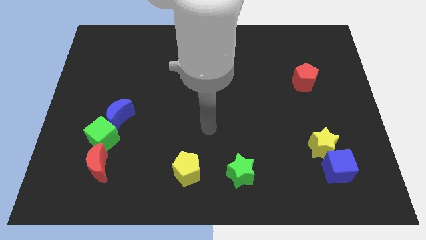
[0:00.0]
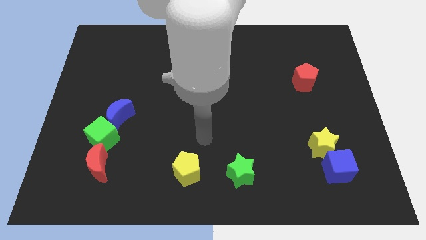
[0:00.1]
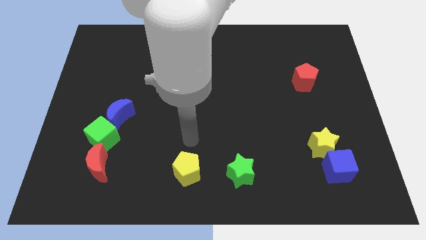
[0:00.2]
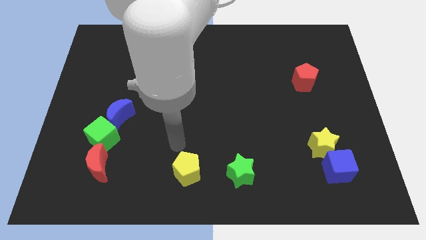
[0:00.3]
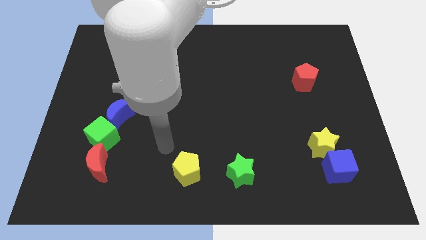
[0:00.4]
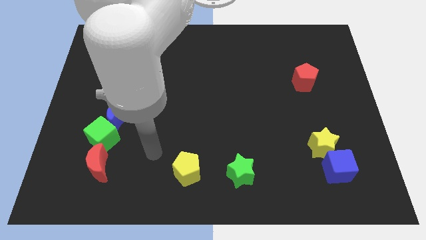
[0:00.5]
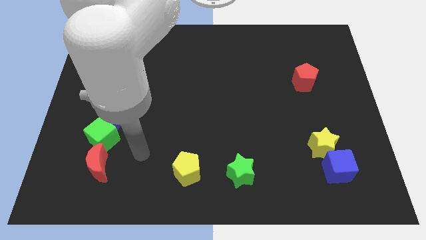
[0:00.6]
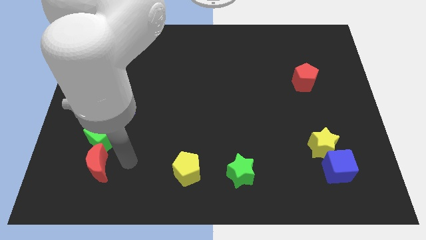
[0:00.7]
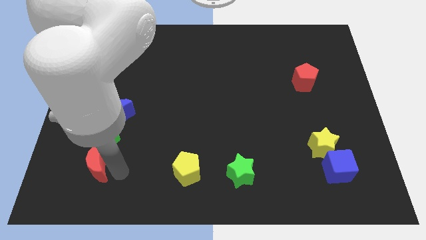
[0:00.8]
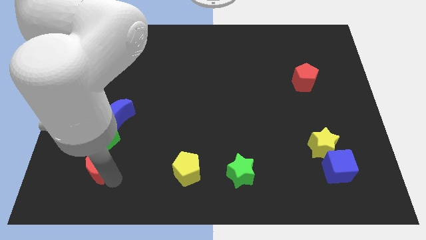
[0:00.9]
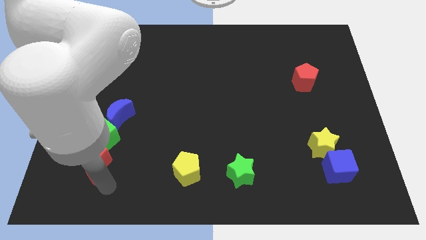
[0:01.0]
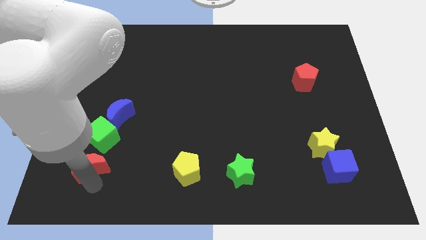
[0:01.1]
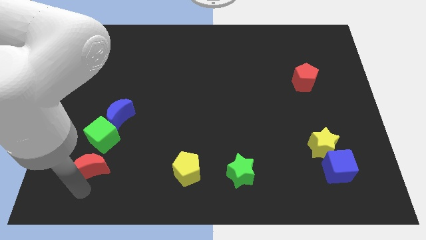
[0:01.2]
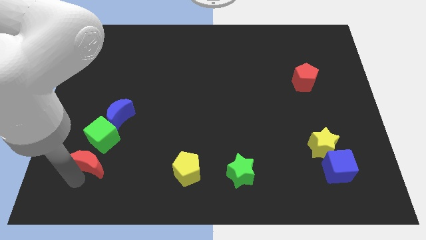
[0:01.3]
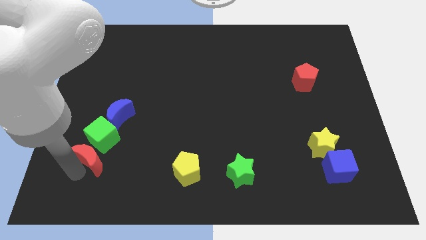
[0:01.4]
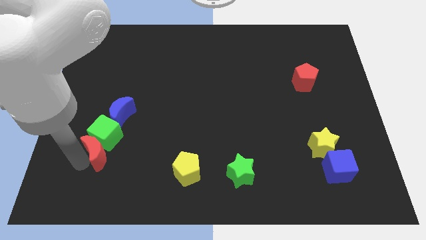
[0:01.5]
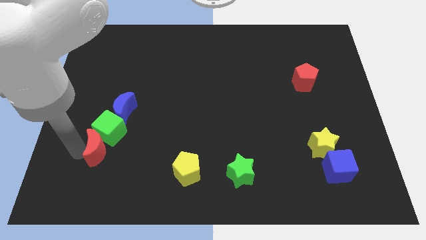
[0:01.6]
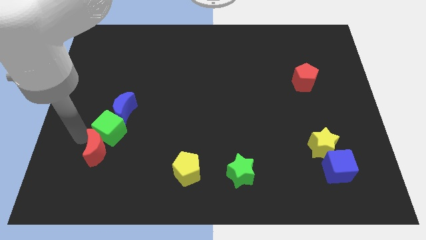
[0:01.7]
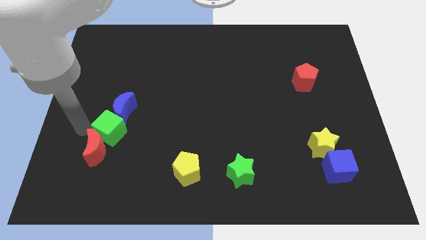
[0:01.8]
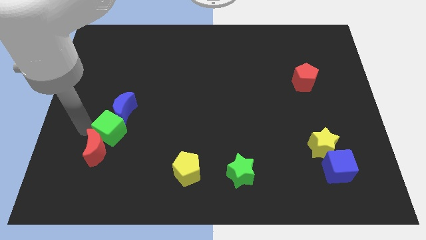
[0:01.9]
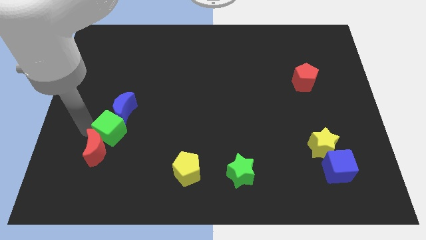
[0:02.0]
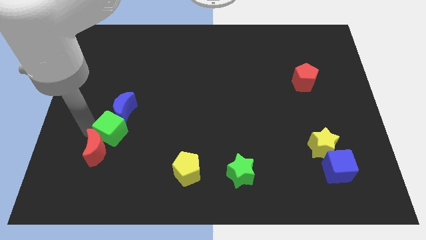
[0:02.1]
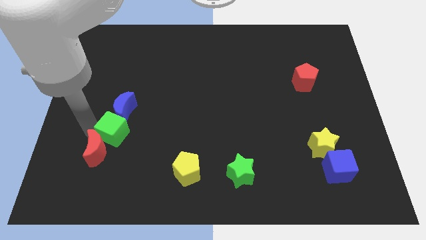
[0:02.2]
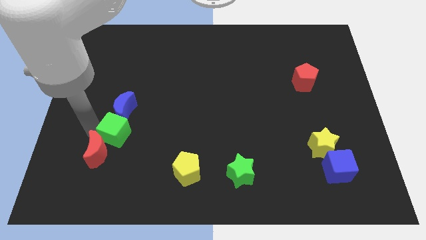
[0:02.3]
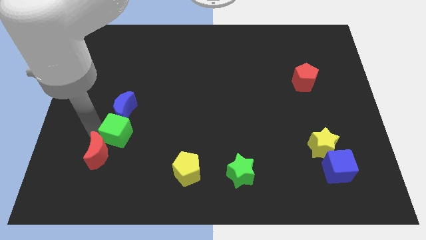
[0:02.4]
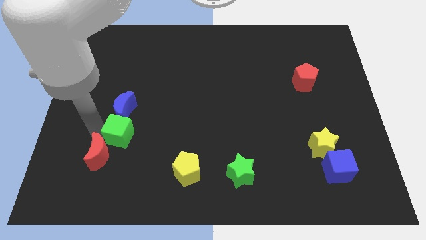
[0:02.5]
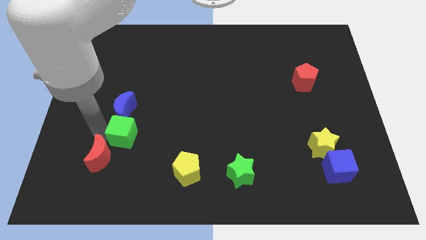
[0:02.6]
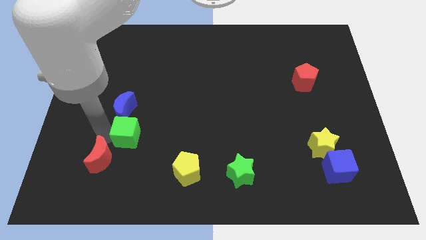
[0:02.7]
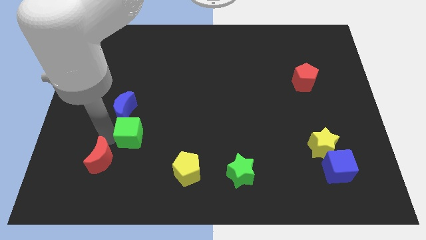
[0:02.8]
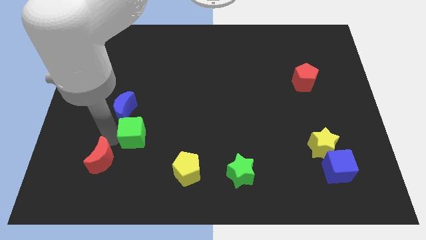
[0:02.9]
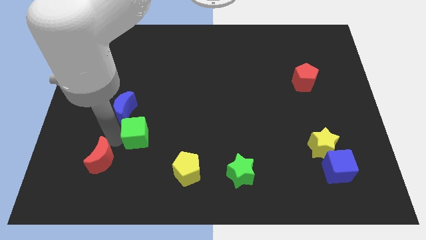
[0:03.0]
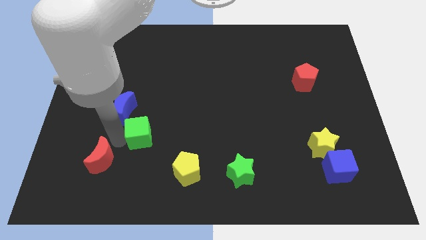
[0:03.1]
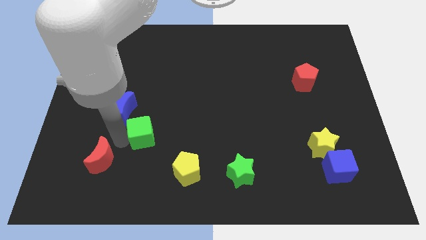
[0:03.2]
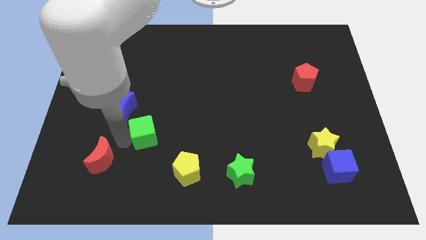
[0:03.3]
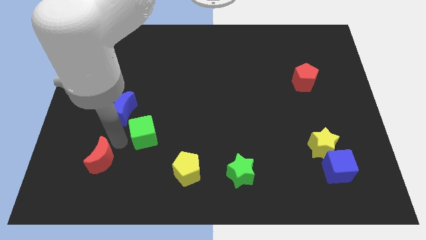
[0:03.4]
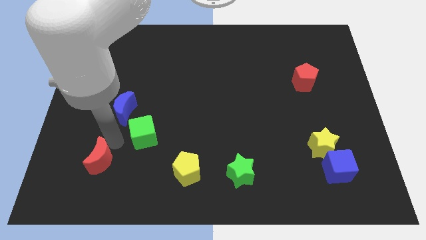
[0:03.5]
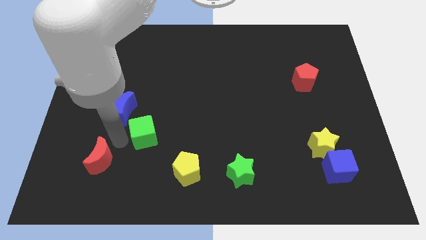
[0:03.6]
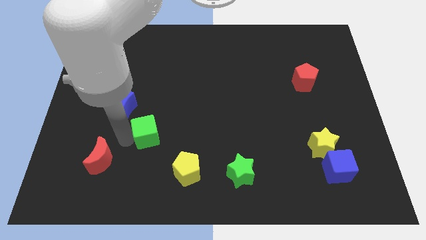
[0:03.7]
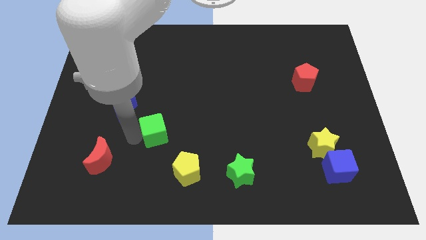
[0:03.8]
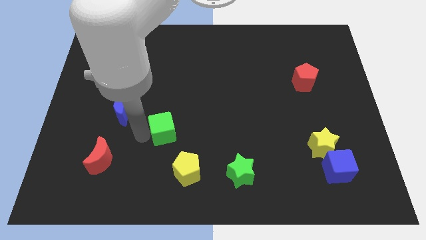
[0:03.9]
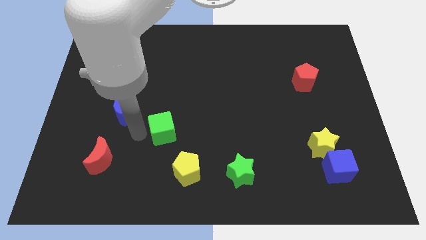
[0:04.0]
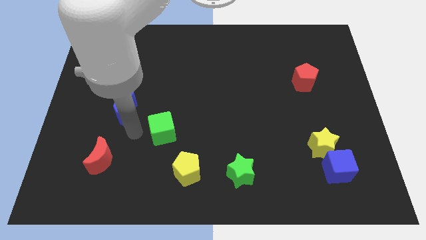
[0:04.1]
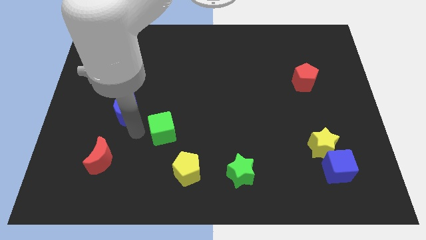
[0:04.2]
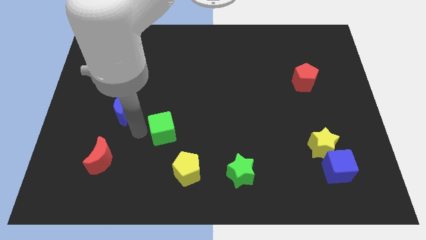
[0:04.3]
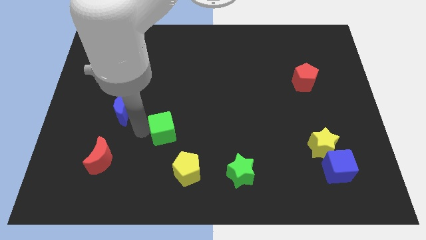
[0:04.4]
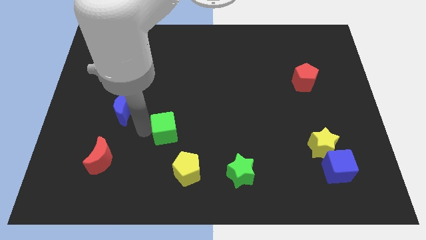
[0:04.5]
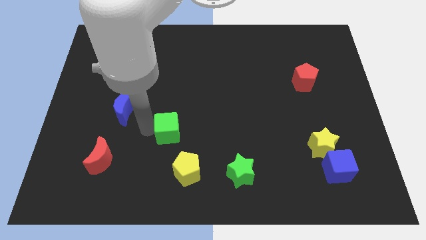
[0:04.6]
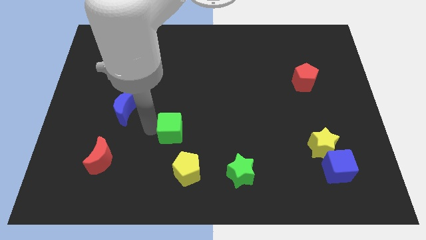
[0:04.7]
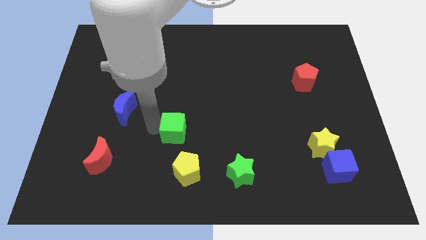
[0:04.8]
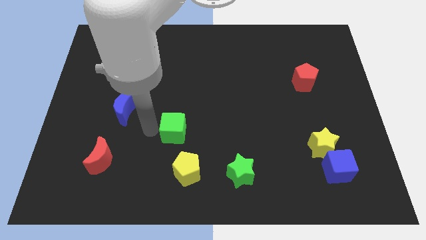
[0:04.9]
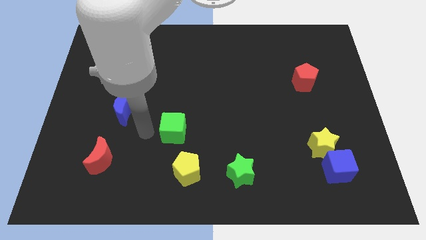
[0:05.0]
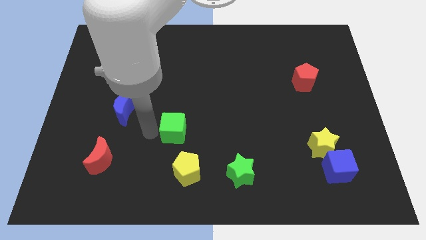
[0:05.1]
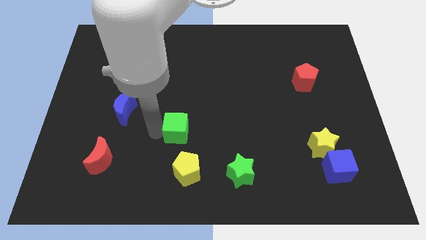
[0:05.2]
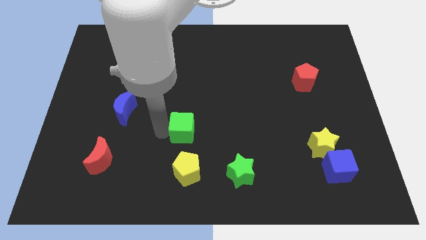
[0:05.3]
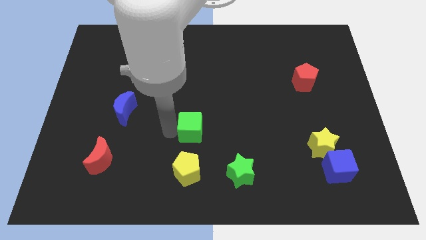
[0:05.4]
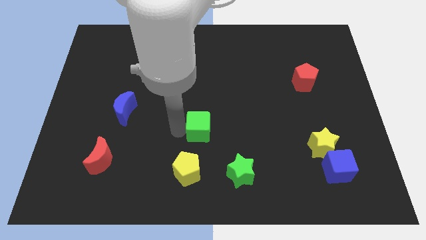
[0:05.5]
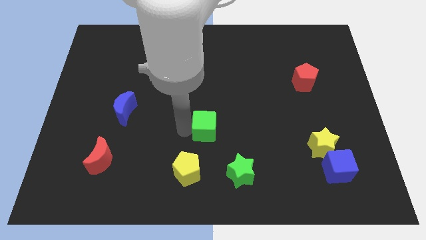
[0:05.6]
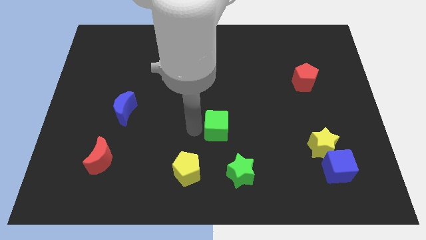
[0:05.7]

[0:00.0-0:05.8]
push the green cube to the top of the green star

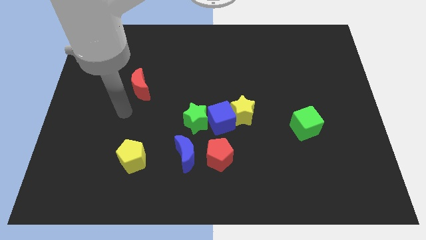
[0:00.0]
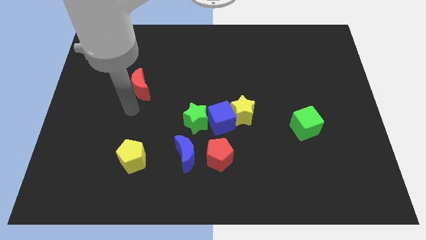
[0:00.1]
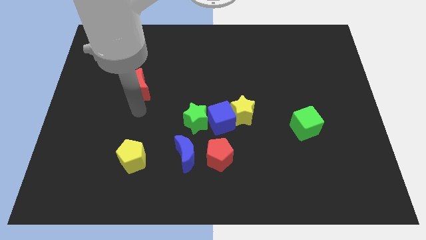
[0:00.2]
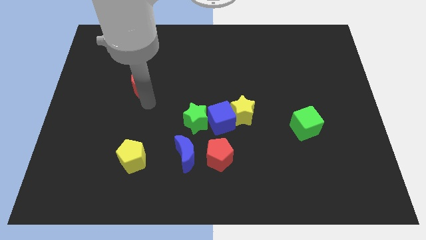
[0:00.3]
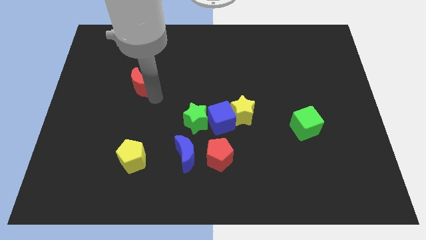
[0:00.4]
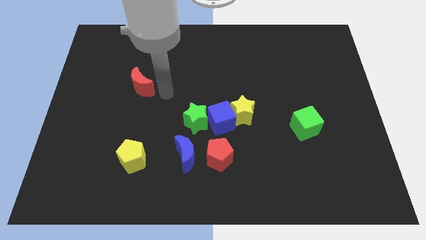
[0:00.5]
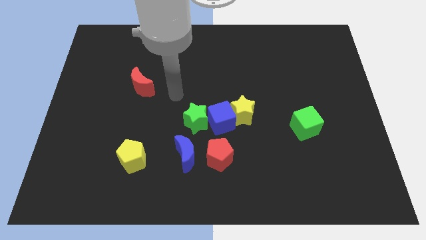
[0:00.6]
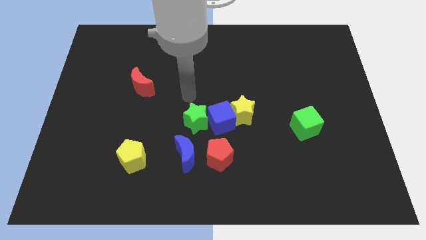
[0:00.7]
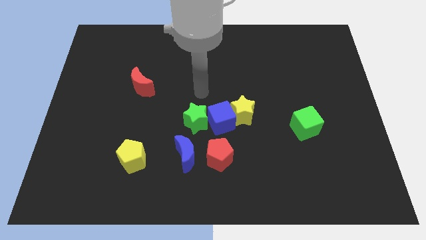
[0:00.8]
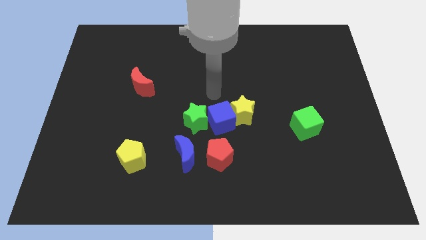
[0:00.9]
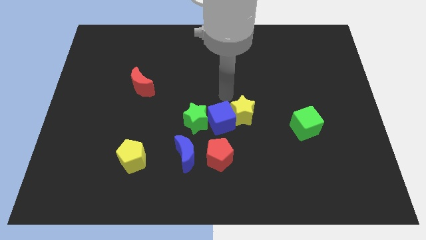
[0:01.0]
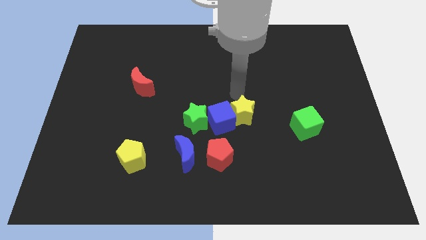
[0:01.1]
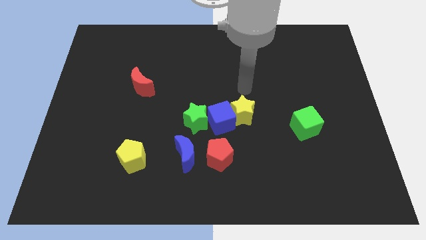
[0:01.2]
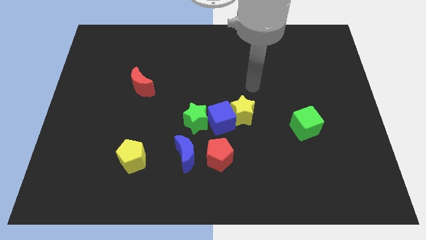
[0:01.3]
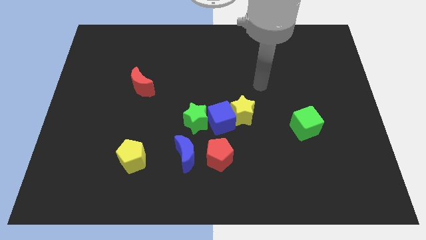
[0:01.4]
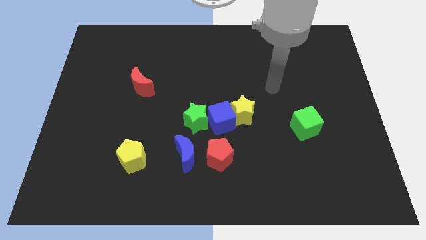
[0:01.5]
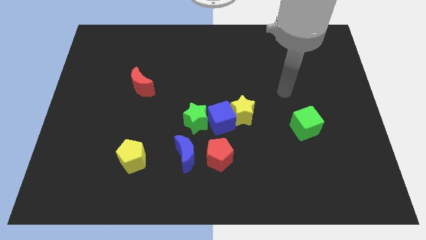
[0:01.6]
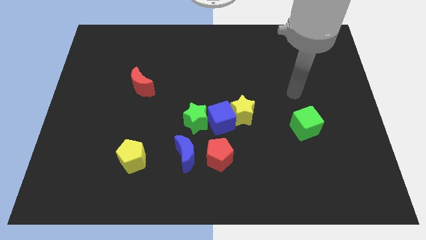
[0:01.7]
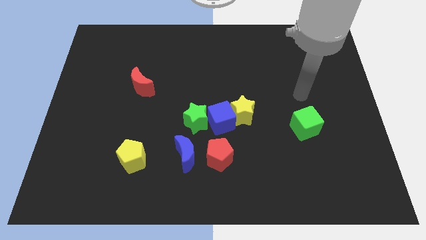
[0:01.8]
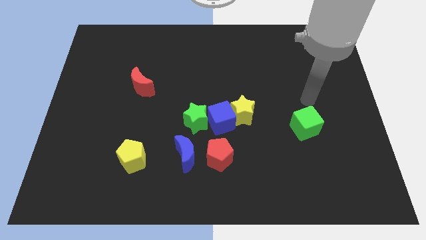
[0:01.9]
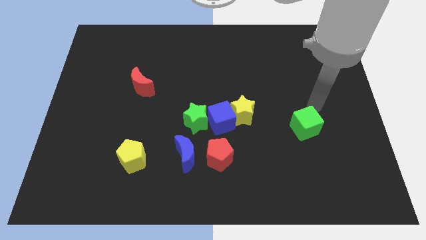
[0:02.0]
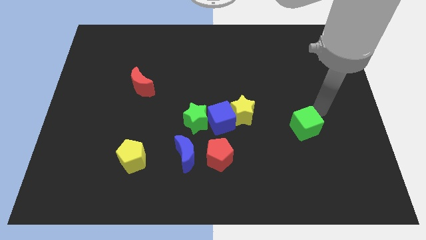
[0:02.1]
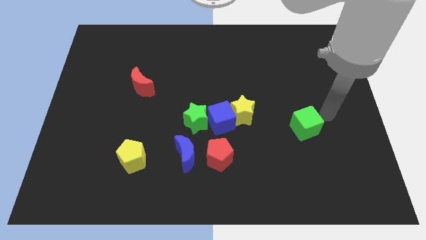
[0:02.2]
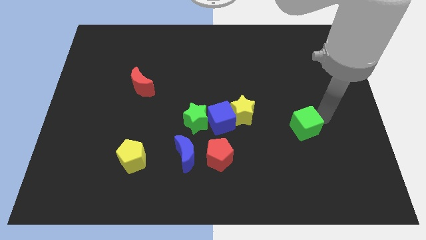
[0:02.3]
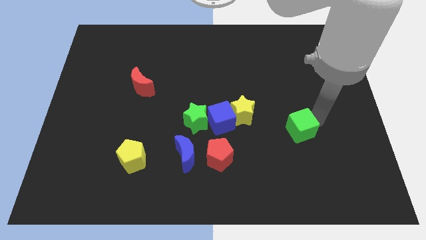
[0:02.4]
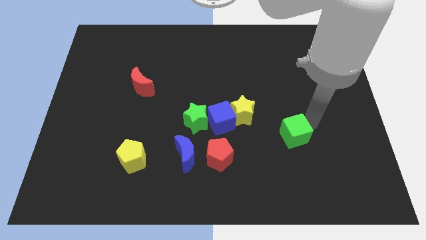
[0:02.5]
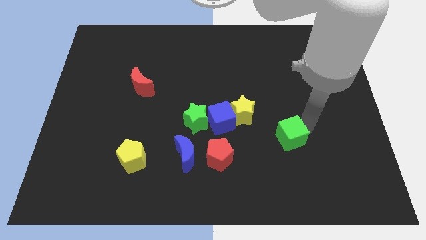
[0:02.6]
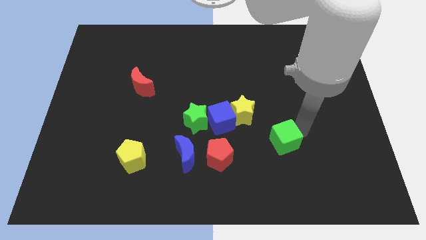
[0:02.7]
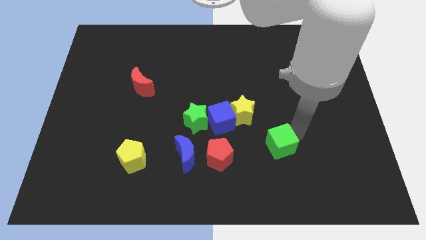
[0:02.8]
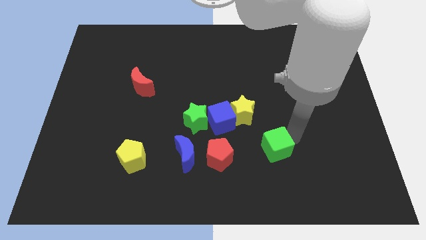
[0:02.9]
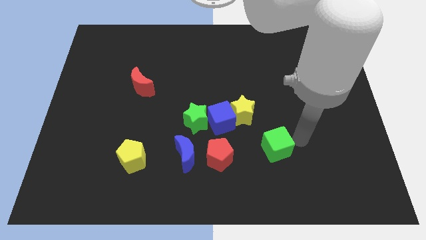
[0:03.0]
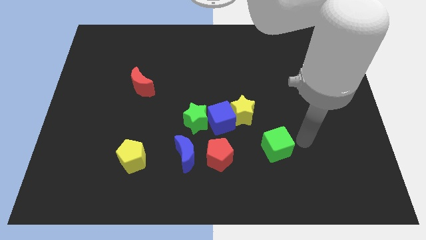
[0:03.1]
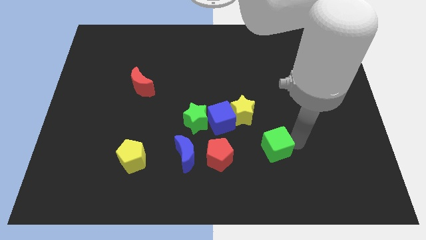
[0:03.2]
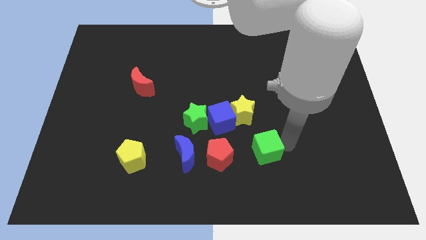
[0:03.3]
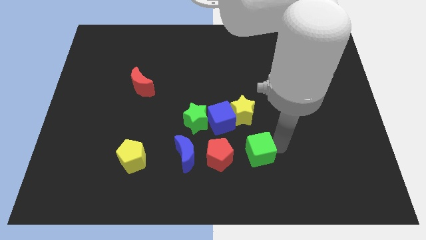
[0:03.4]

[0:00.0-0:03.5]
slide the green cube just right of the blue moon
